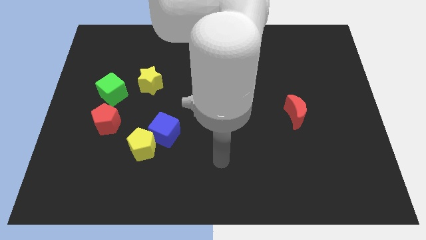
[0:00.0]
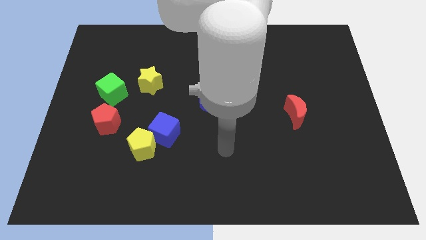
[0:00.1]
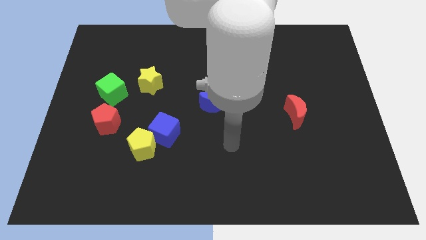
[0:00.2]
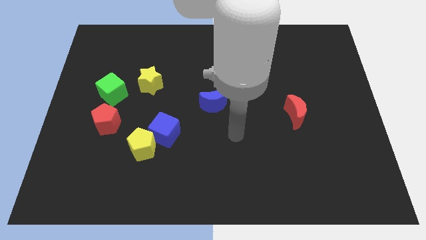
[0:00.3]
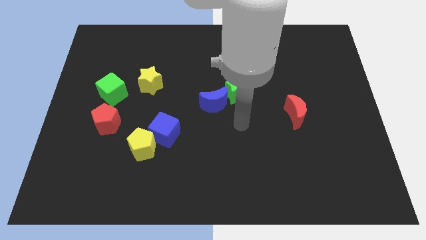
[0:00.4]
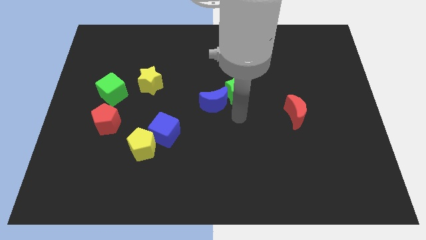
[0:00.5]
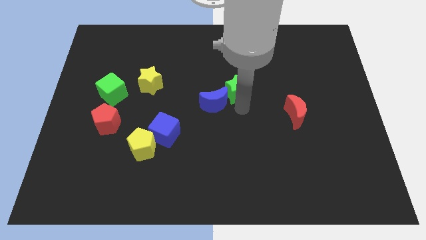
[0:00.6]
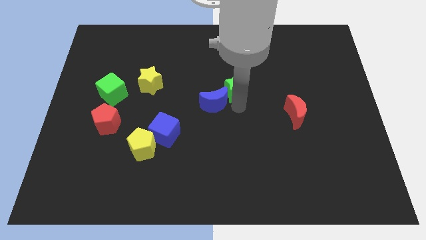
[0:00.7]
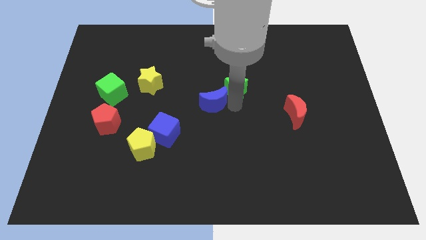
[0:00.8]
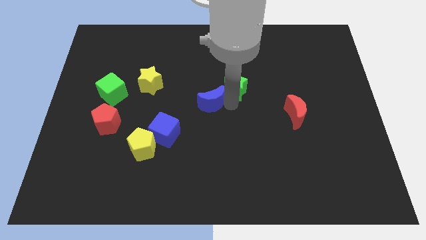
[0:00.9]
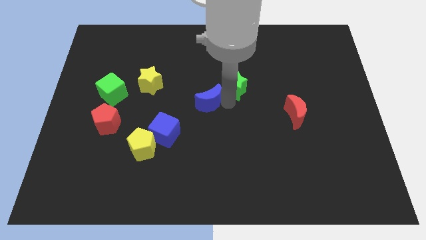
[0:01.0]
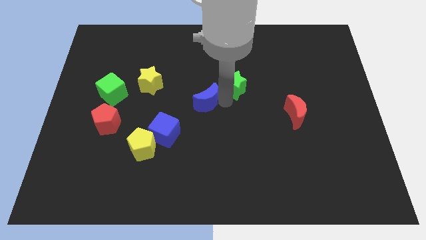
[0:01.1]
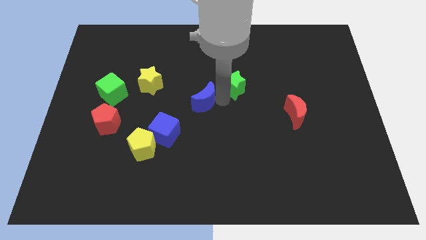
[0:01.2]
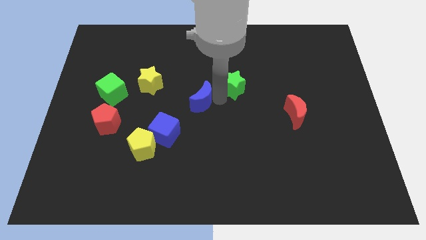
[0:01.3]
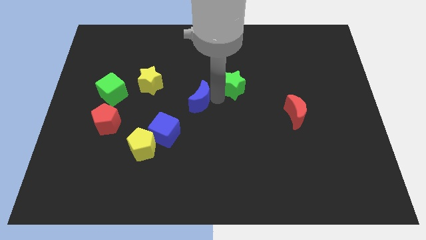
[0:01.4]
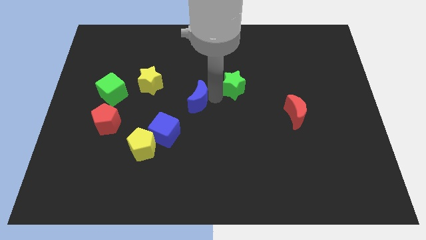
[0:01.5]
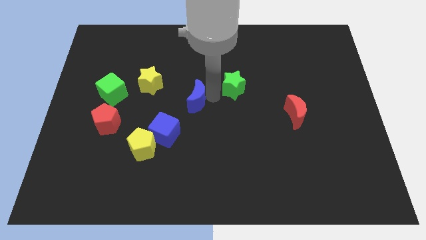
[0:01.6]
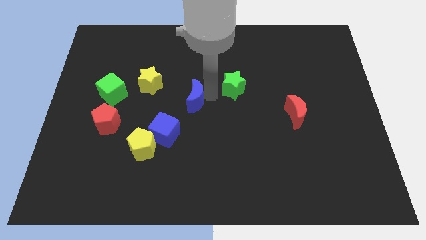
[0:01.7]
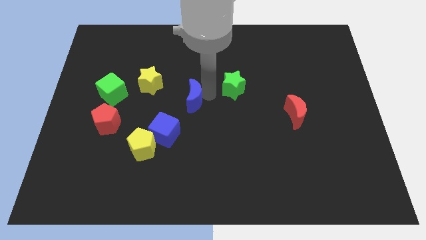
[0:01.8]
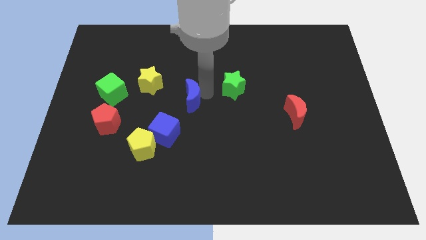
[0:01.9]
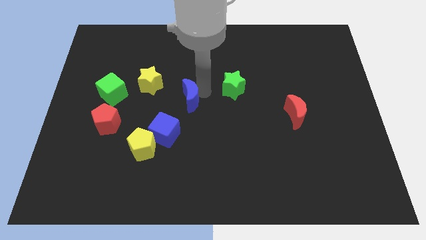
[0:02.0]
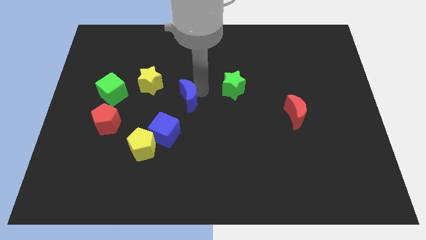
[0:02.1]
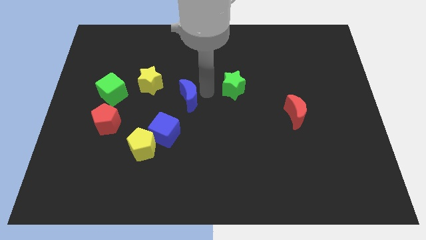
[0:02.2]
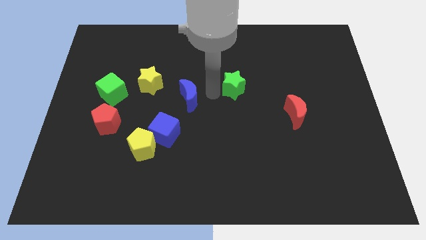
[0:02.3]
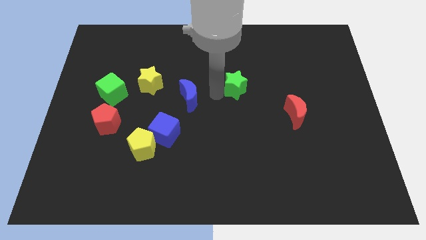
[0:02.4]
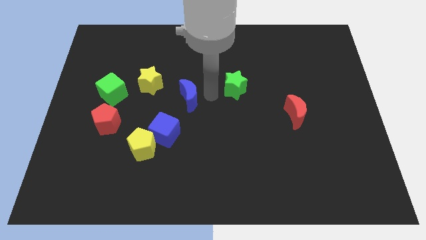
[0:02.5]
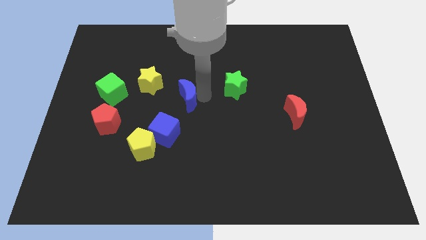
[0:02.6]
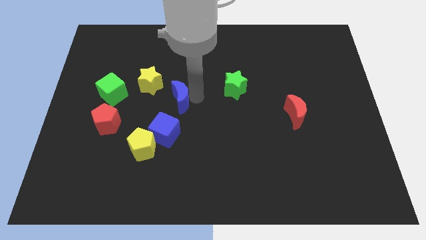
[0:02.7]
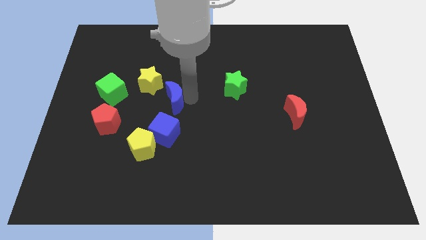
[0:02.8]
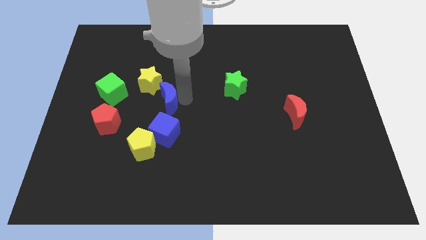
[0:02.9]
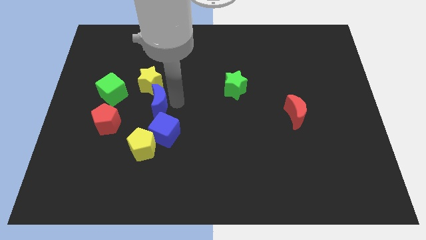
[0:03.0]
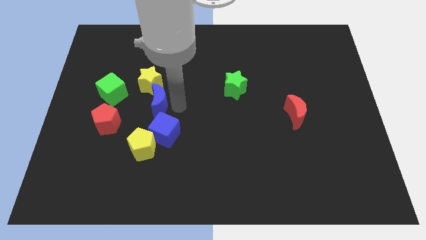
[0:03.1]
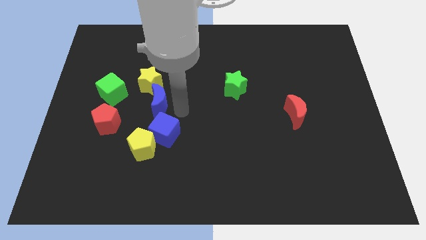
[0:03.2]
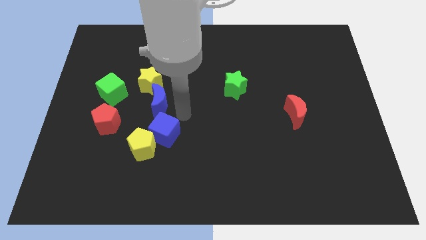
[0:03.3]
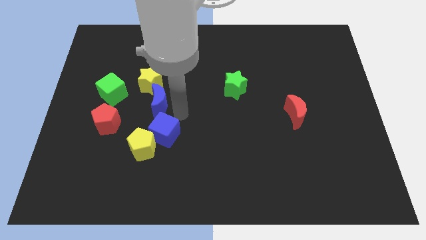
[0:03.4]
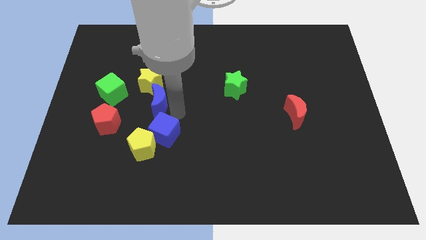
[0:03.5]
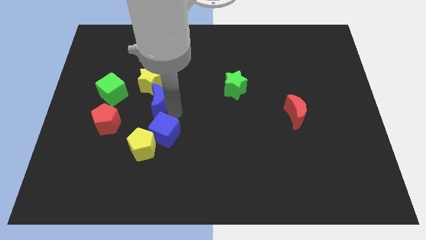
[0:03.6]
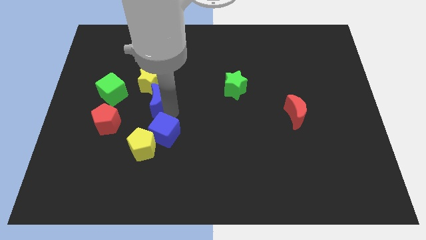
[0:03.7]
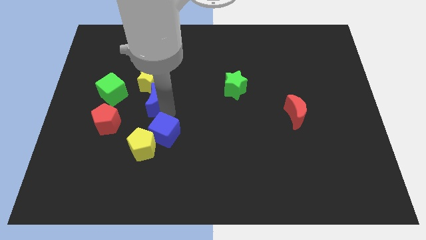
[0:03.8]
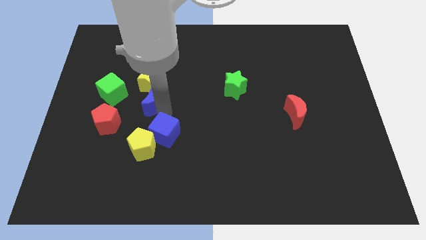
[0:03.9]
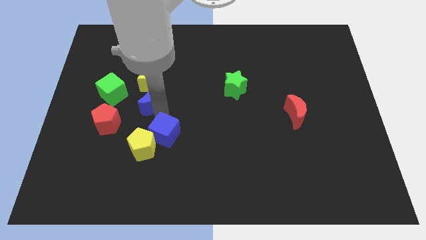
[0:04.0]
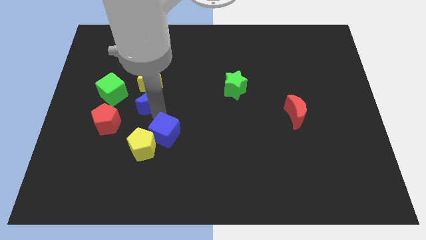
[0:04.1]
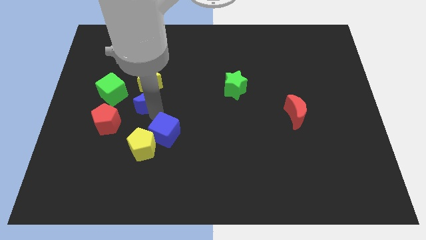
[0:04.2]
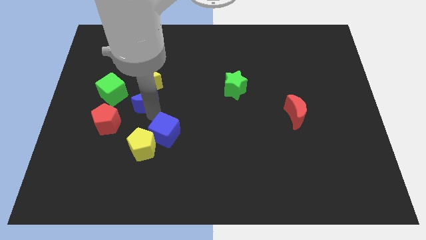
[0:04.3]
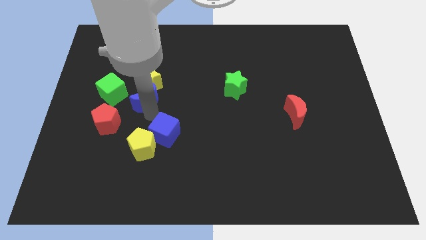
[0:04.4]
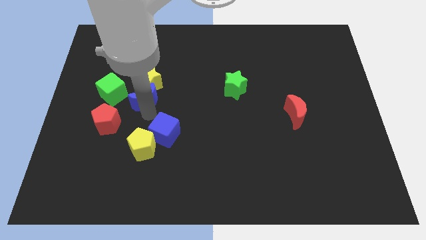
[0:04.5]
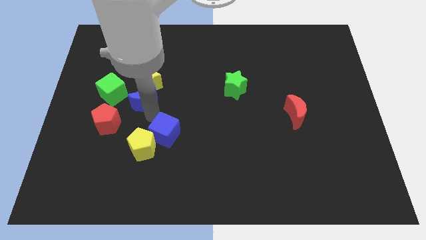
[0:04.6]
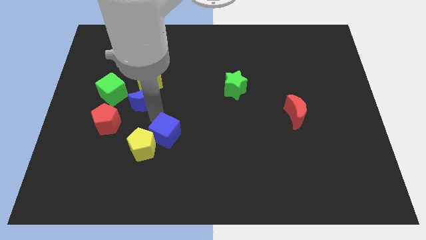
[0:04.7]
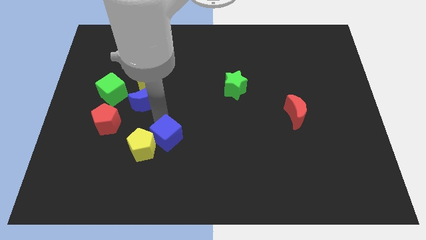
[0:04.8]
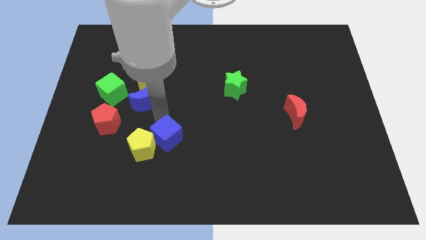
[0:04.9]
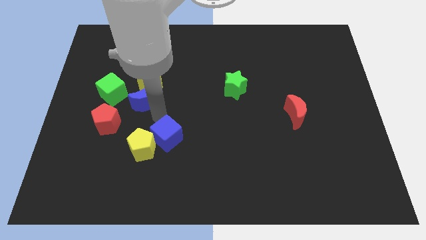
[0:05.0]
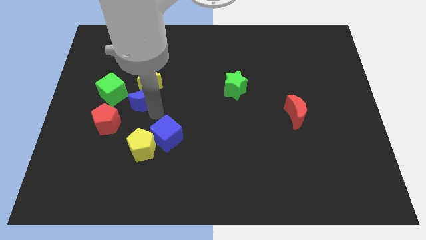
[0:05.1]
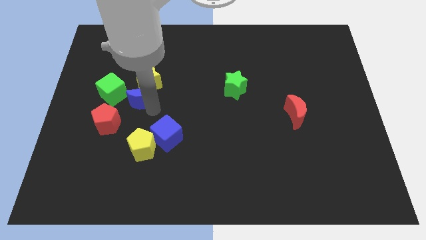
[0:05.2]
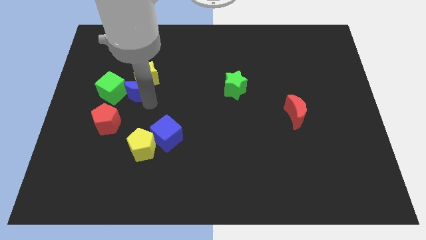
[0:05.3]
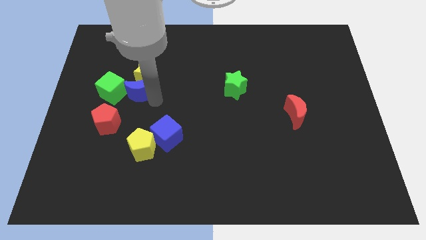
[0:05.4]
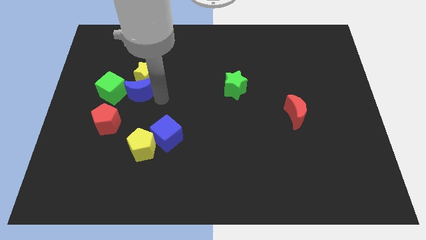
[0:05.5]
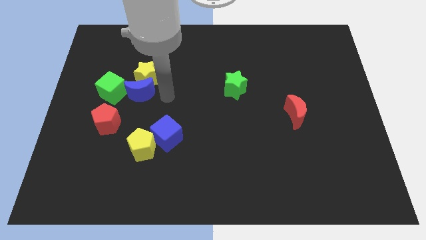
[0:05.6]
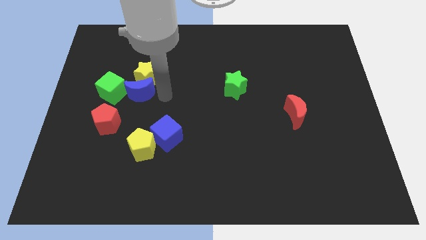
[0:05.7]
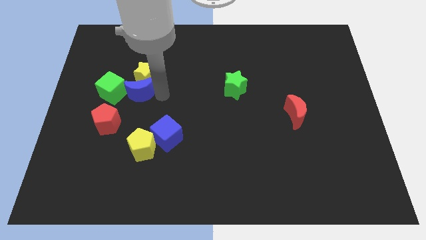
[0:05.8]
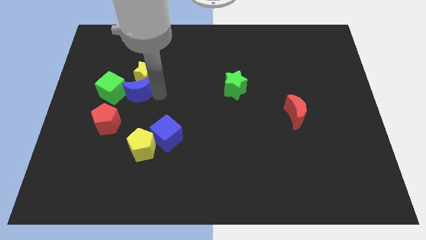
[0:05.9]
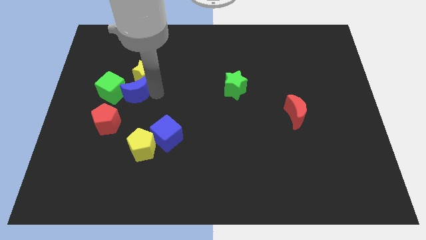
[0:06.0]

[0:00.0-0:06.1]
push the blue moon close to the green cube

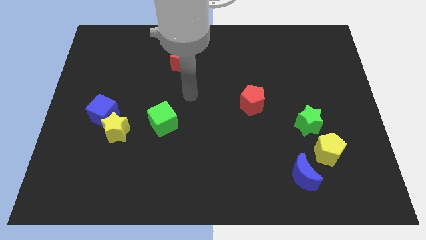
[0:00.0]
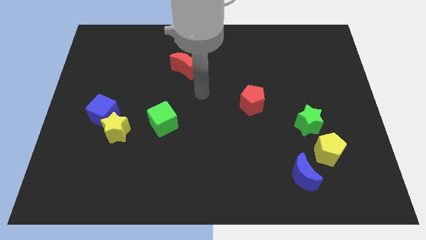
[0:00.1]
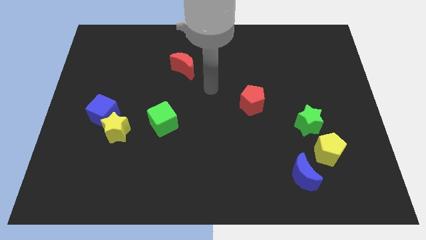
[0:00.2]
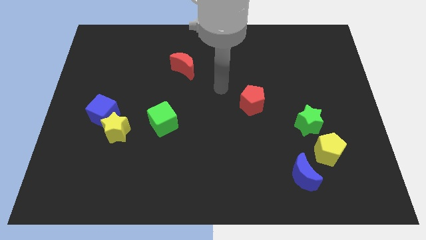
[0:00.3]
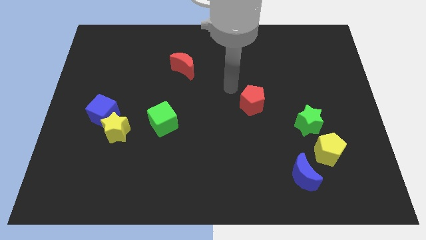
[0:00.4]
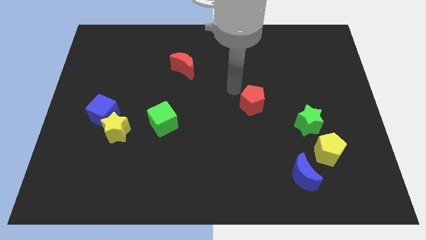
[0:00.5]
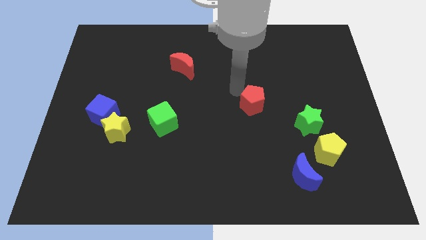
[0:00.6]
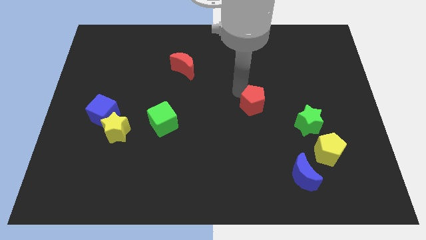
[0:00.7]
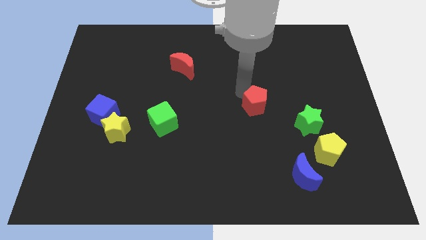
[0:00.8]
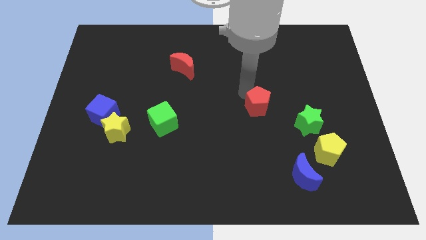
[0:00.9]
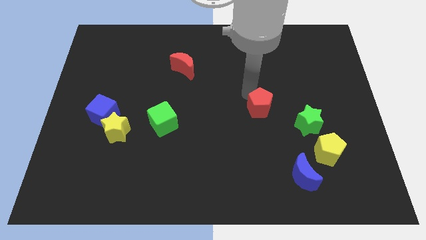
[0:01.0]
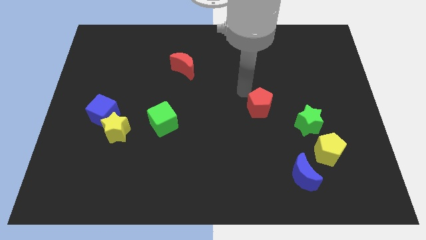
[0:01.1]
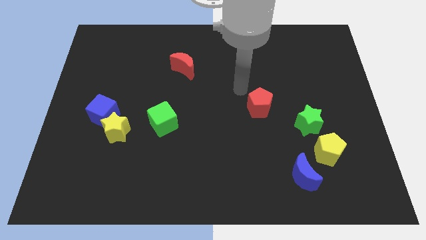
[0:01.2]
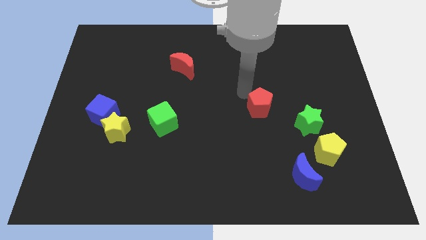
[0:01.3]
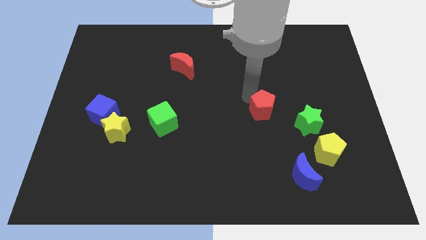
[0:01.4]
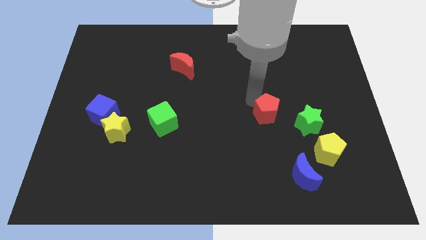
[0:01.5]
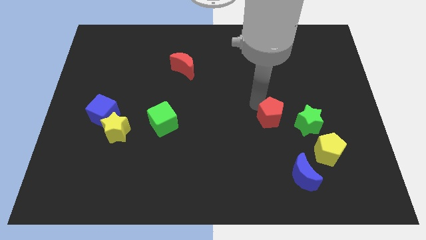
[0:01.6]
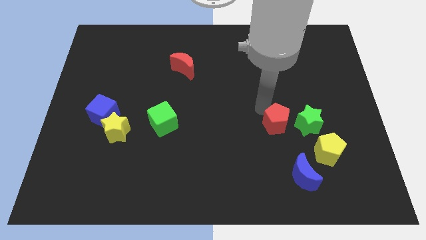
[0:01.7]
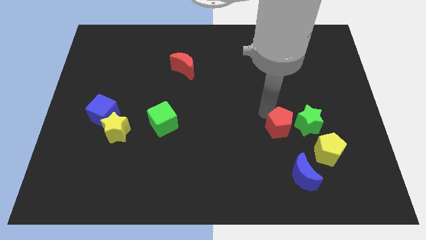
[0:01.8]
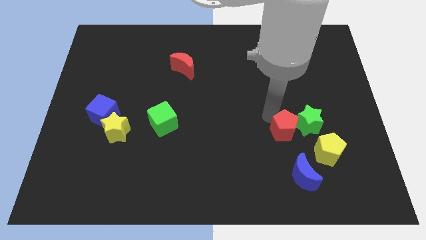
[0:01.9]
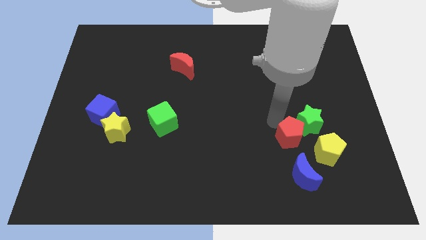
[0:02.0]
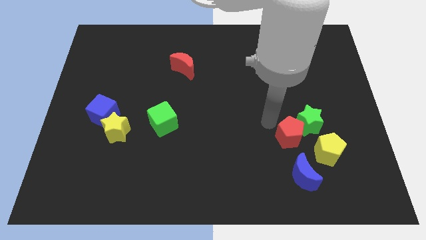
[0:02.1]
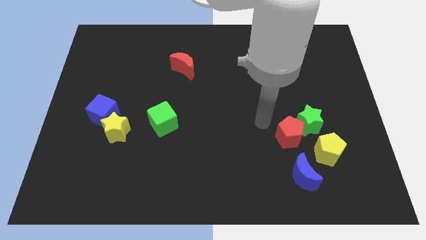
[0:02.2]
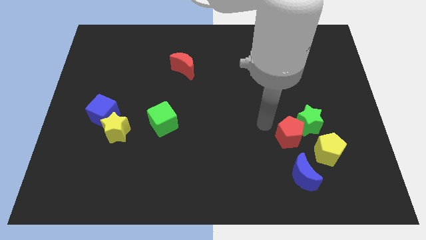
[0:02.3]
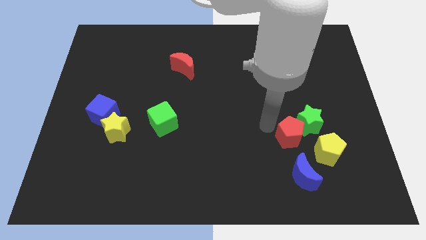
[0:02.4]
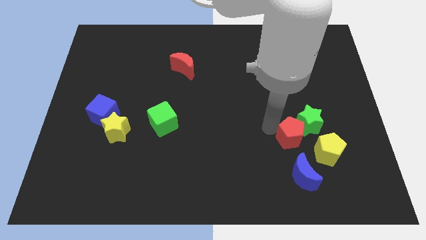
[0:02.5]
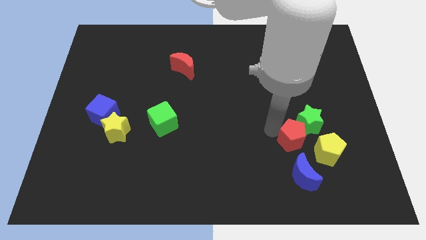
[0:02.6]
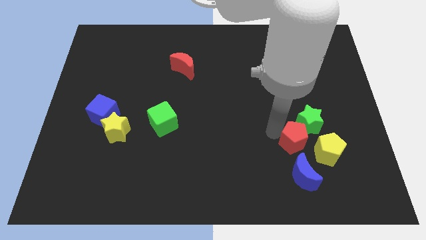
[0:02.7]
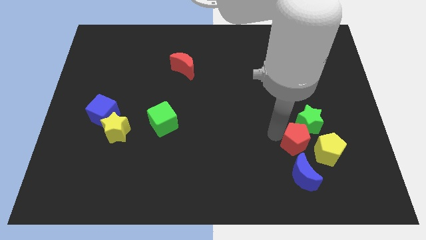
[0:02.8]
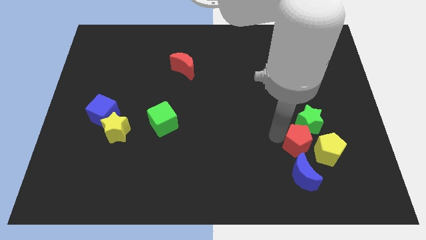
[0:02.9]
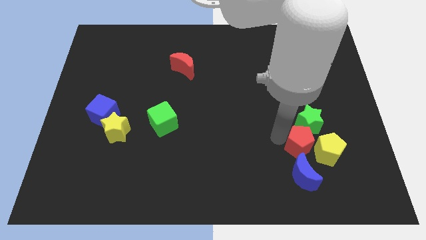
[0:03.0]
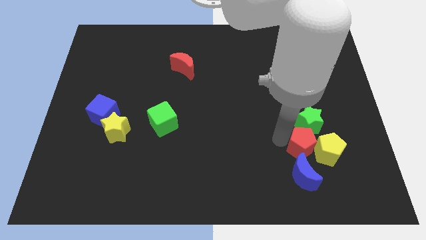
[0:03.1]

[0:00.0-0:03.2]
push the red pentagon next to the yellow pentagon
